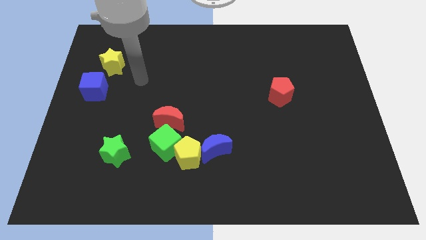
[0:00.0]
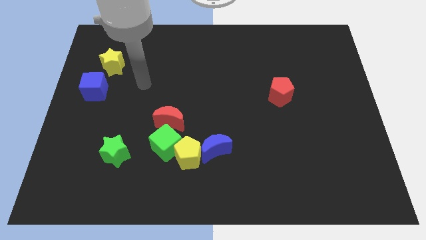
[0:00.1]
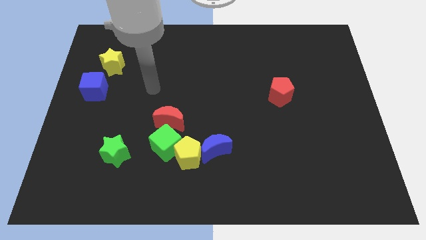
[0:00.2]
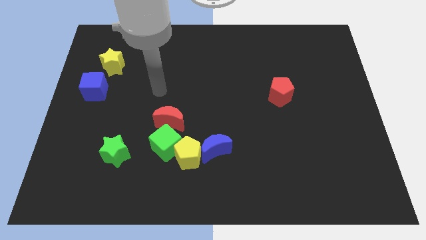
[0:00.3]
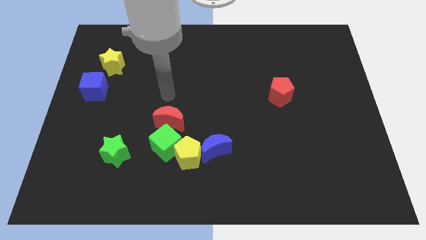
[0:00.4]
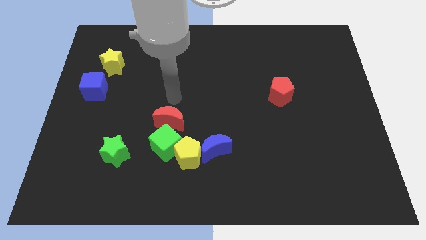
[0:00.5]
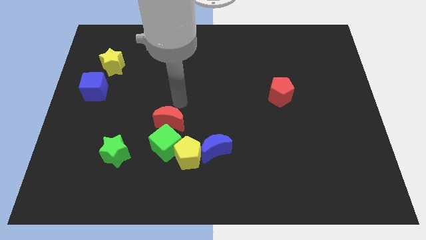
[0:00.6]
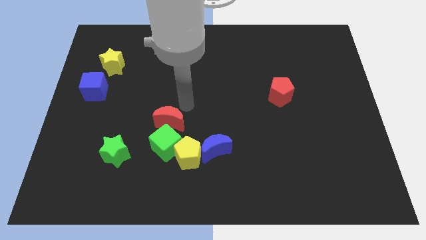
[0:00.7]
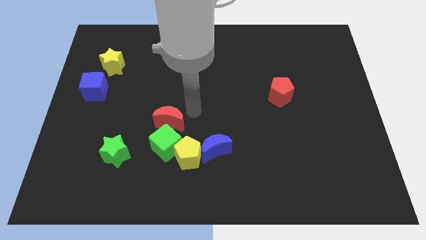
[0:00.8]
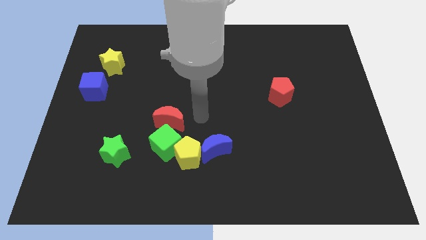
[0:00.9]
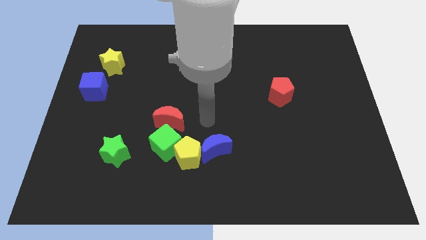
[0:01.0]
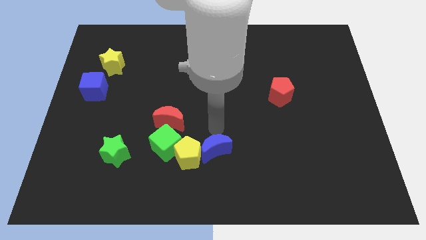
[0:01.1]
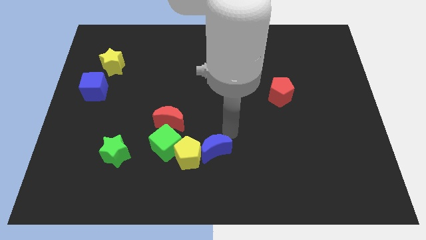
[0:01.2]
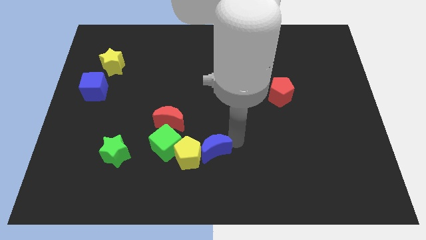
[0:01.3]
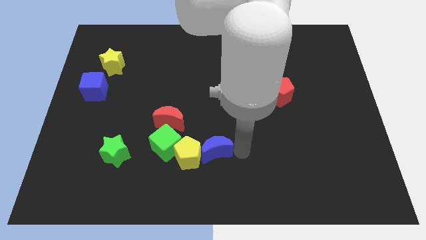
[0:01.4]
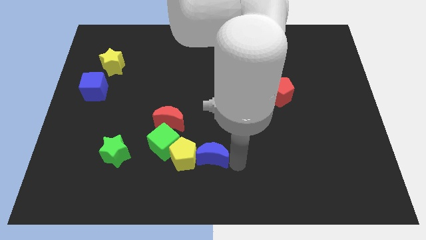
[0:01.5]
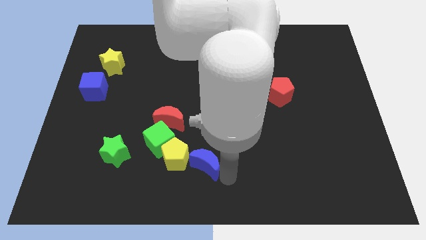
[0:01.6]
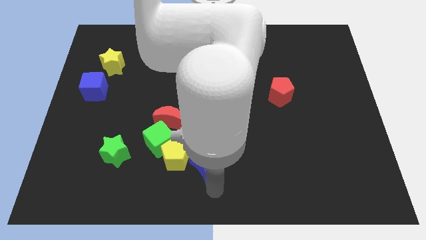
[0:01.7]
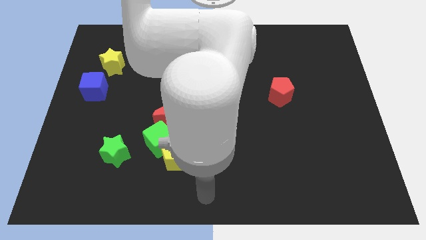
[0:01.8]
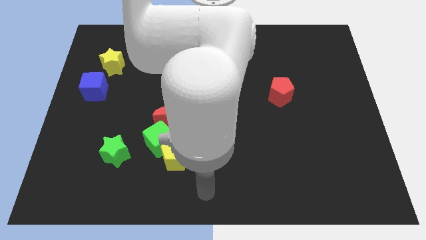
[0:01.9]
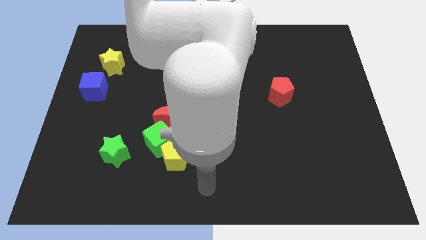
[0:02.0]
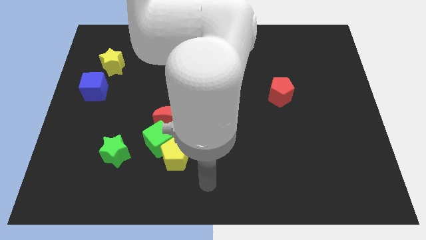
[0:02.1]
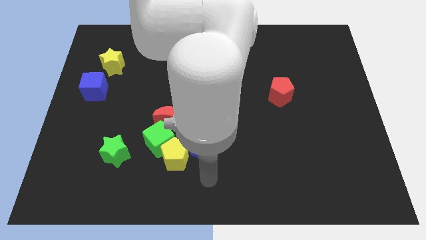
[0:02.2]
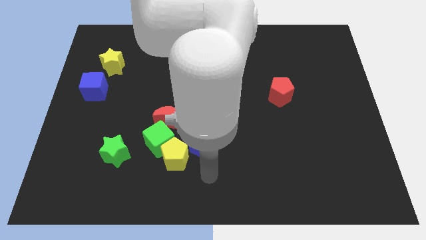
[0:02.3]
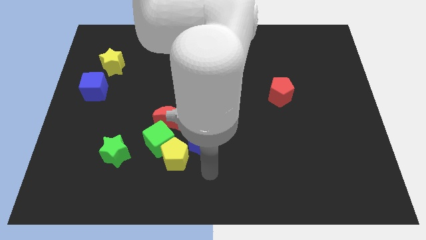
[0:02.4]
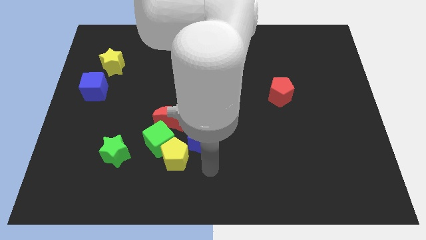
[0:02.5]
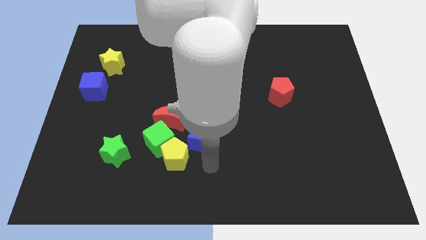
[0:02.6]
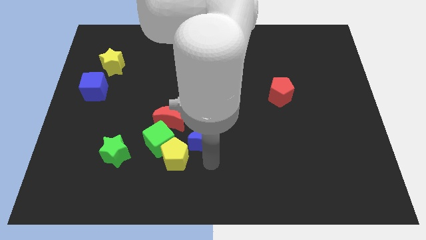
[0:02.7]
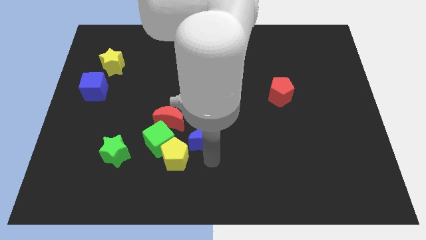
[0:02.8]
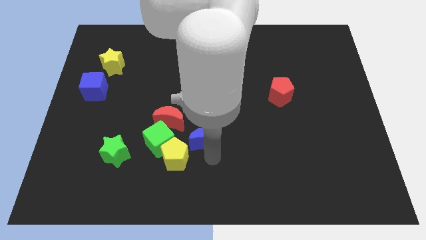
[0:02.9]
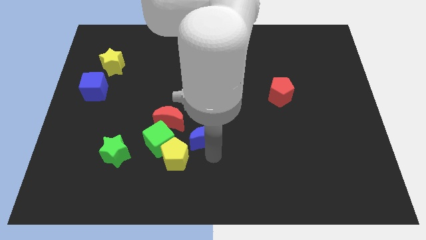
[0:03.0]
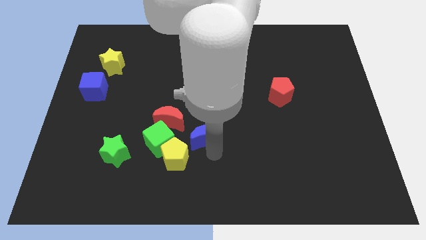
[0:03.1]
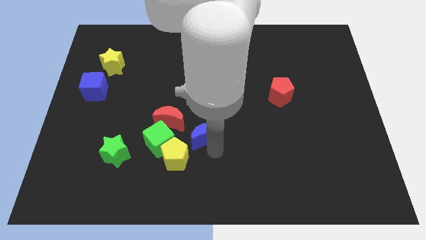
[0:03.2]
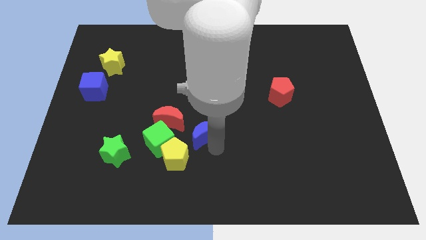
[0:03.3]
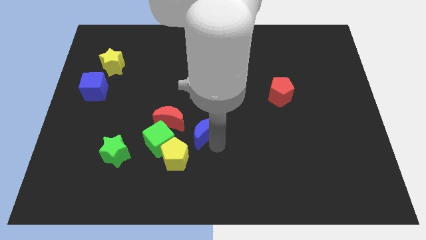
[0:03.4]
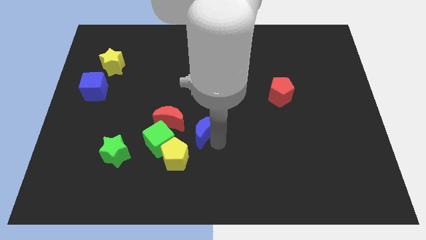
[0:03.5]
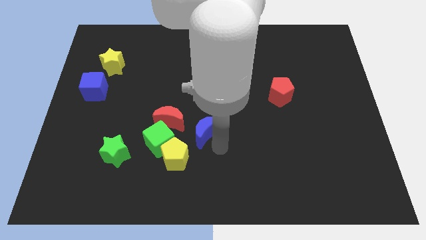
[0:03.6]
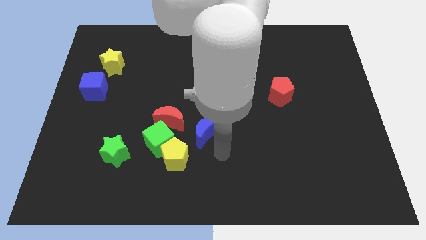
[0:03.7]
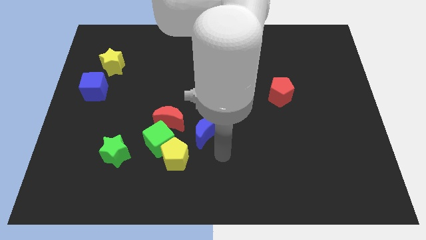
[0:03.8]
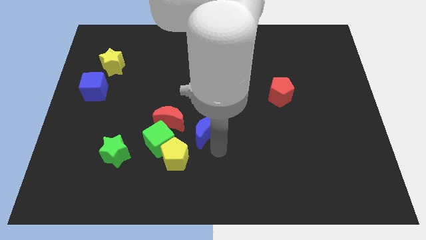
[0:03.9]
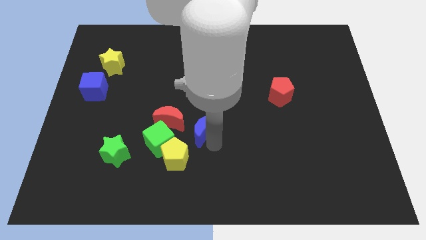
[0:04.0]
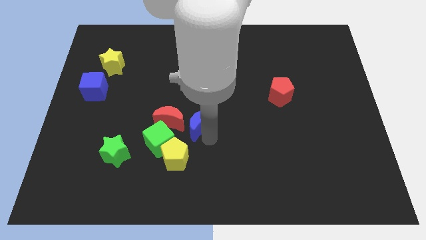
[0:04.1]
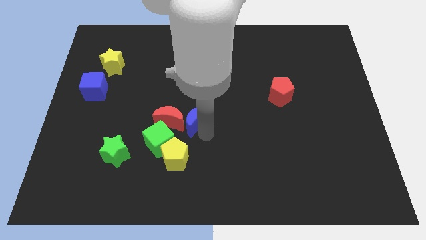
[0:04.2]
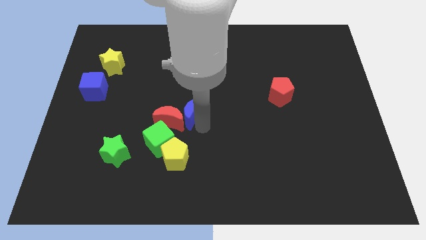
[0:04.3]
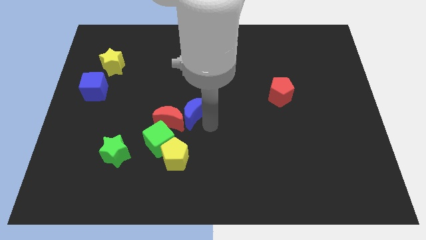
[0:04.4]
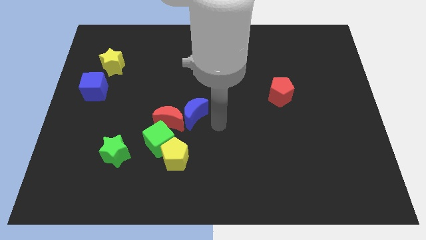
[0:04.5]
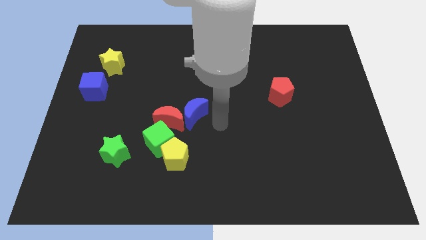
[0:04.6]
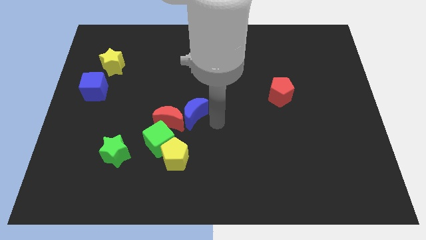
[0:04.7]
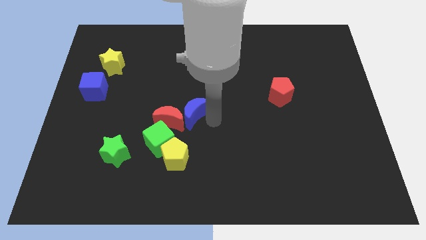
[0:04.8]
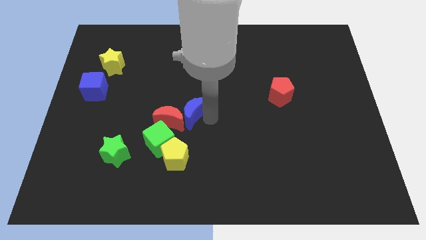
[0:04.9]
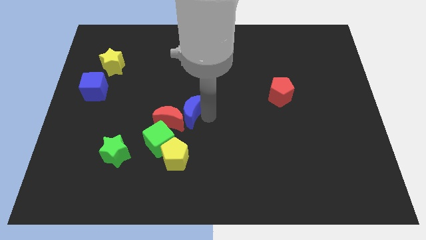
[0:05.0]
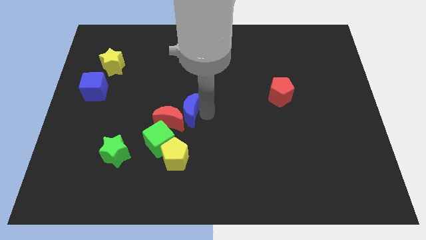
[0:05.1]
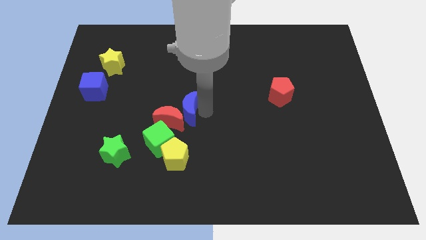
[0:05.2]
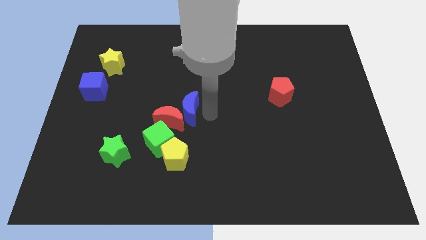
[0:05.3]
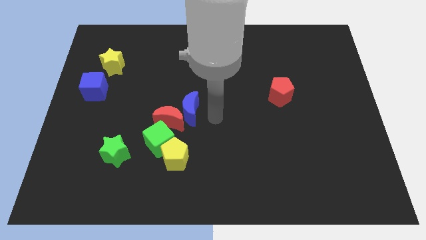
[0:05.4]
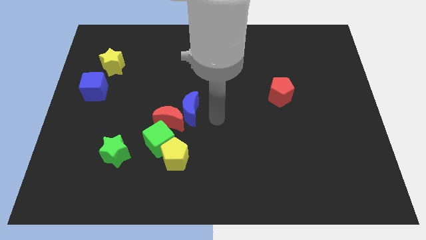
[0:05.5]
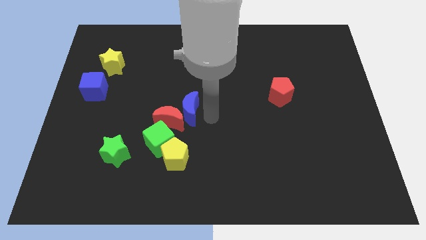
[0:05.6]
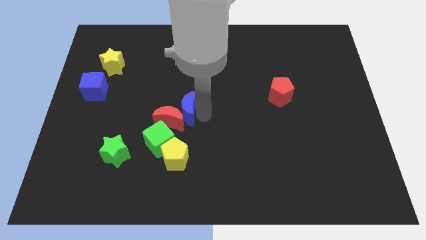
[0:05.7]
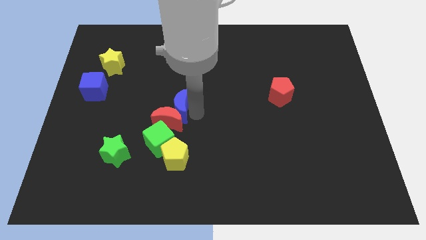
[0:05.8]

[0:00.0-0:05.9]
push the blue moon to the top of the green cube

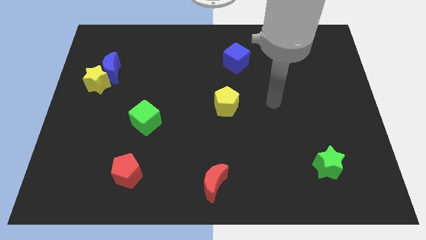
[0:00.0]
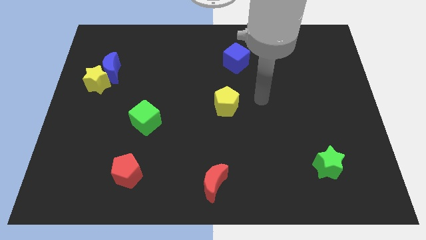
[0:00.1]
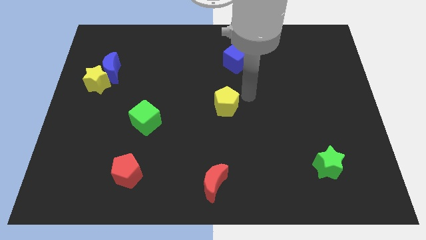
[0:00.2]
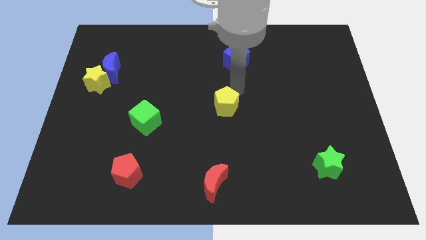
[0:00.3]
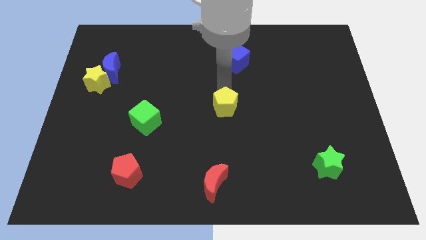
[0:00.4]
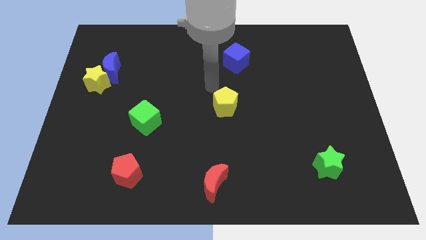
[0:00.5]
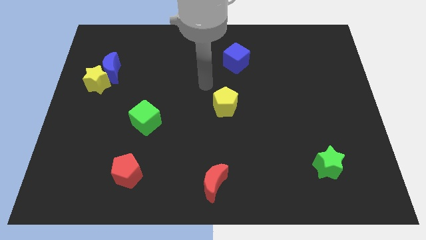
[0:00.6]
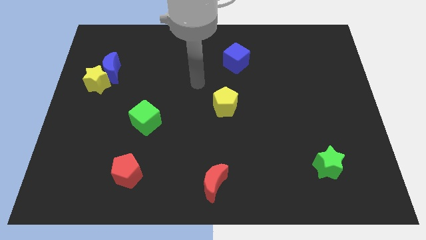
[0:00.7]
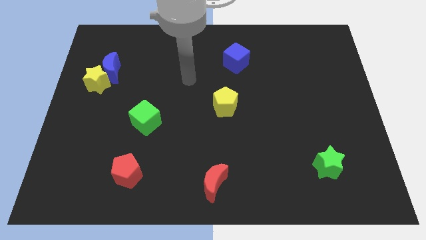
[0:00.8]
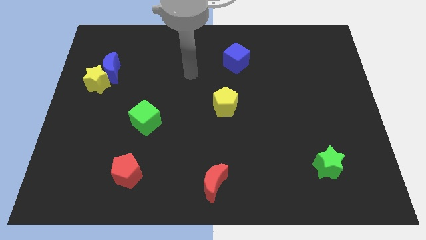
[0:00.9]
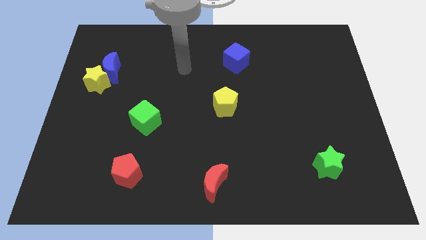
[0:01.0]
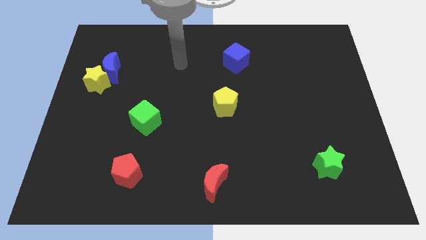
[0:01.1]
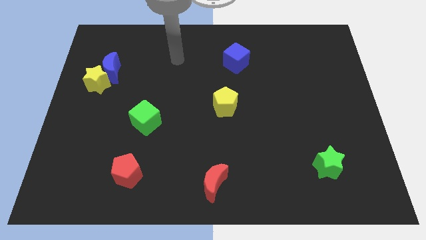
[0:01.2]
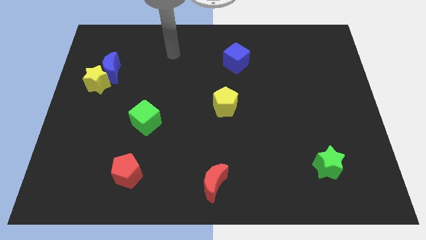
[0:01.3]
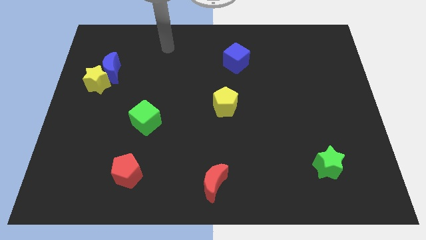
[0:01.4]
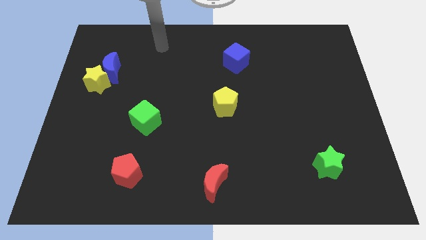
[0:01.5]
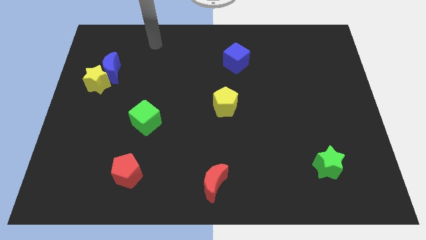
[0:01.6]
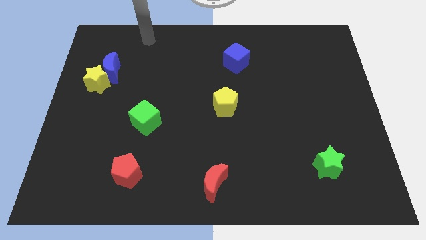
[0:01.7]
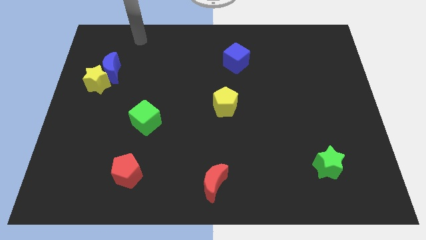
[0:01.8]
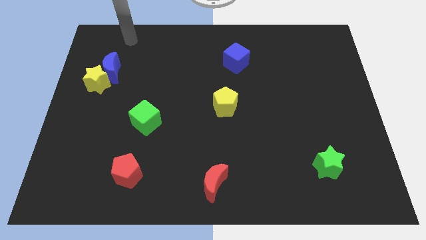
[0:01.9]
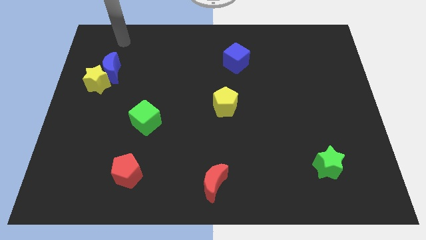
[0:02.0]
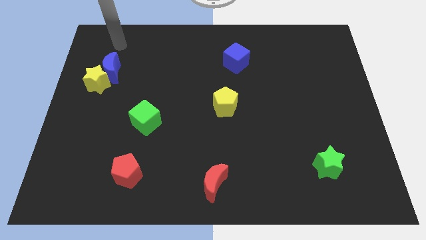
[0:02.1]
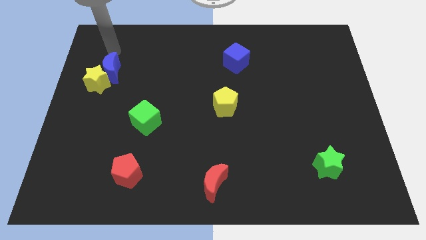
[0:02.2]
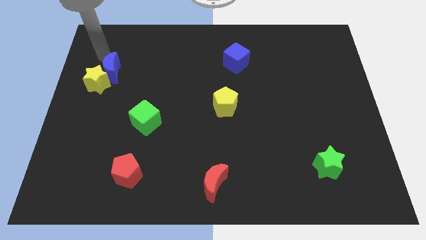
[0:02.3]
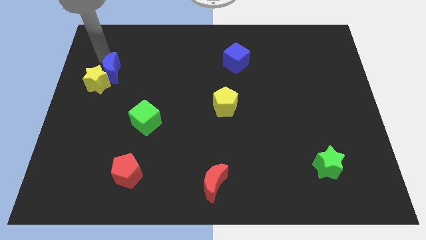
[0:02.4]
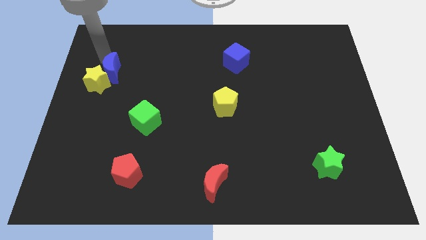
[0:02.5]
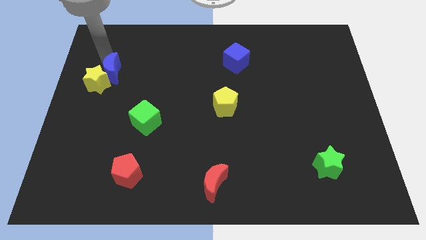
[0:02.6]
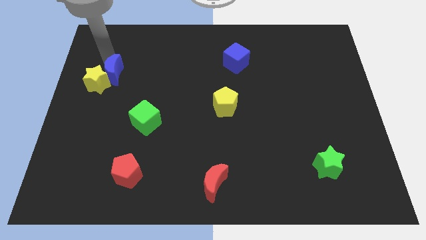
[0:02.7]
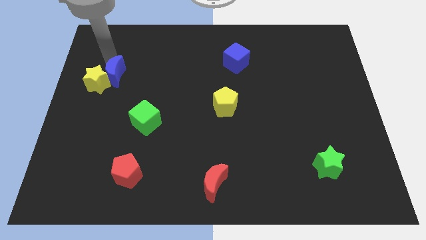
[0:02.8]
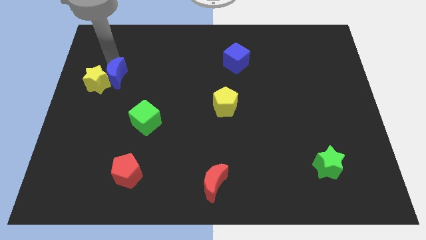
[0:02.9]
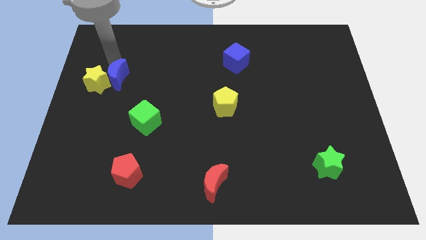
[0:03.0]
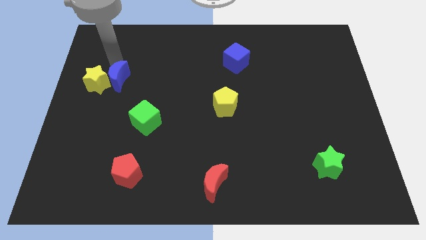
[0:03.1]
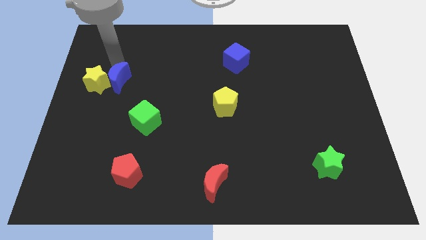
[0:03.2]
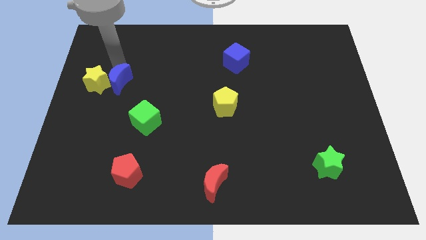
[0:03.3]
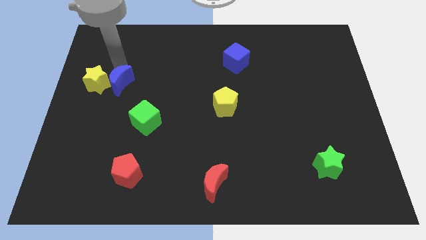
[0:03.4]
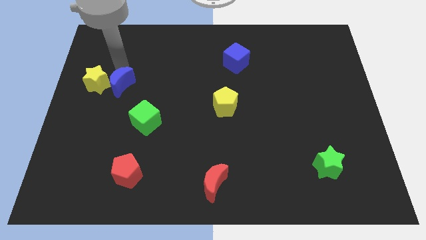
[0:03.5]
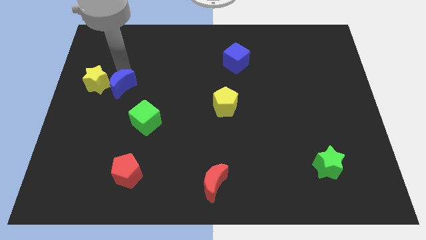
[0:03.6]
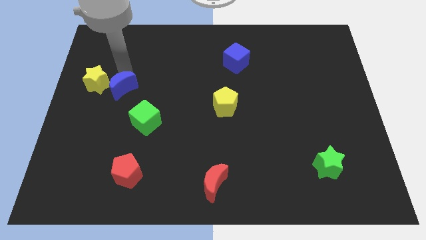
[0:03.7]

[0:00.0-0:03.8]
push the blue moon to the top left side of the green cube
